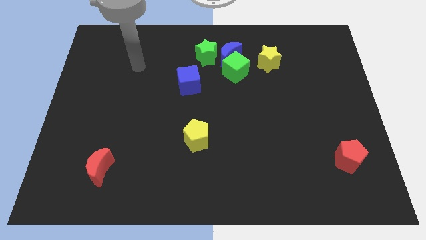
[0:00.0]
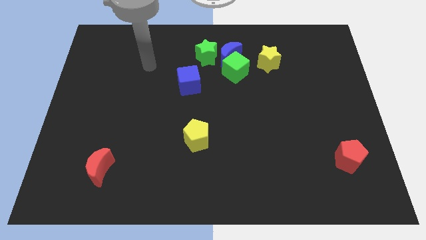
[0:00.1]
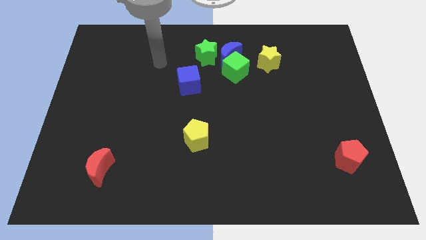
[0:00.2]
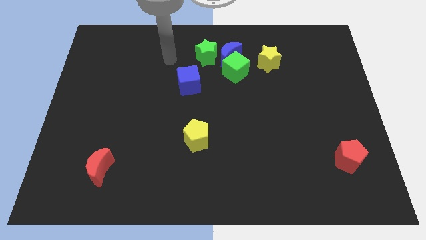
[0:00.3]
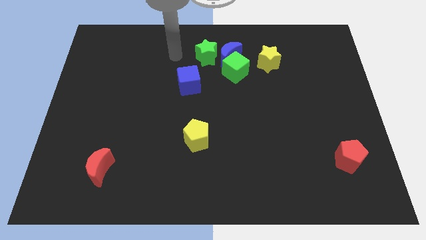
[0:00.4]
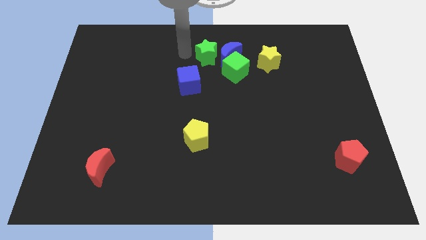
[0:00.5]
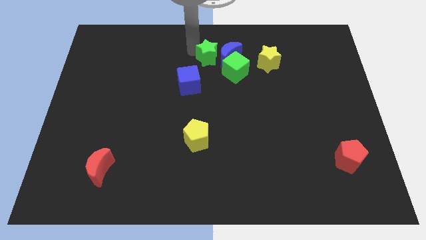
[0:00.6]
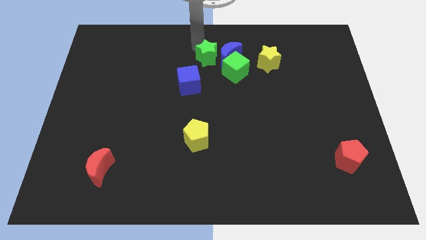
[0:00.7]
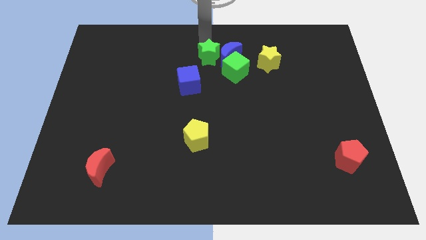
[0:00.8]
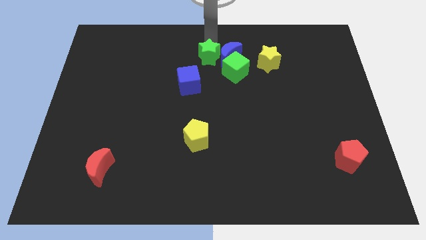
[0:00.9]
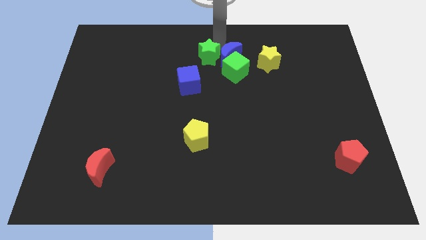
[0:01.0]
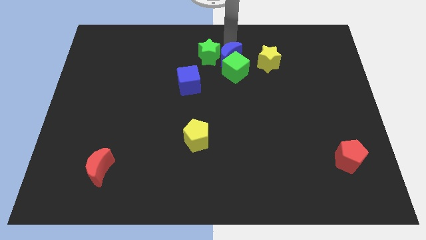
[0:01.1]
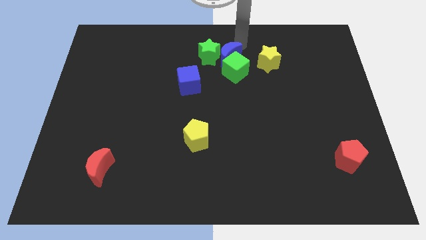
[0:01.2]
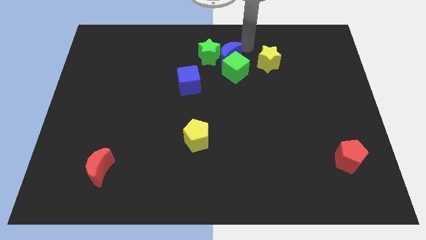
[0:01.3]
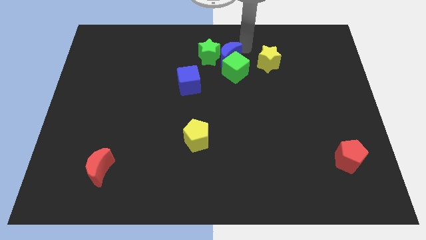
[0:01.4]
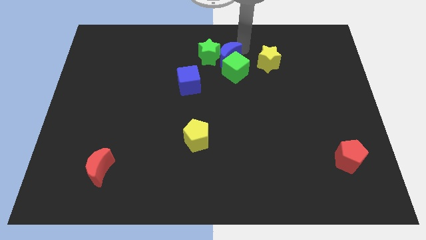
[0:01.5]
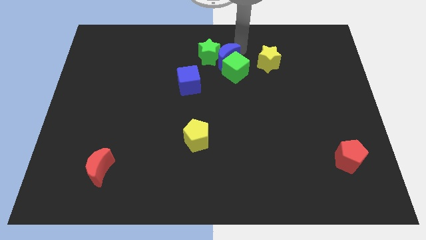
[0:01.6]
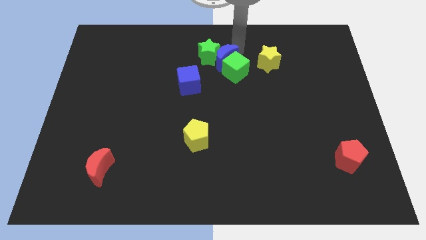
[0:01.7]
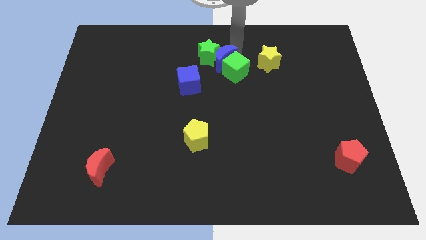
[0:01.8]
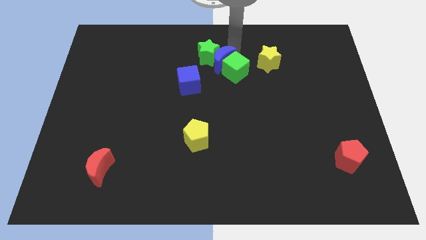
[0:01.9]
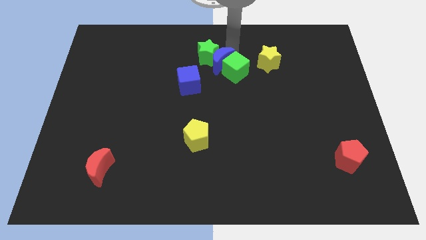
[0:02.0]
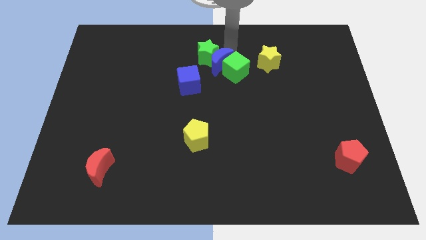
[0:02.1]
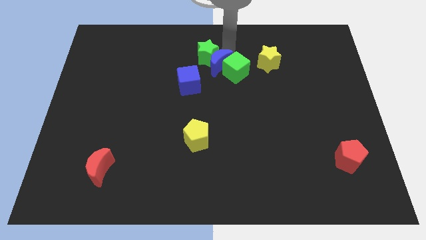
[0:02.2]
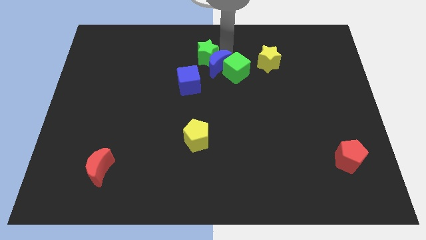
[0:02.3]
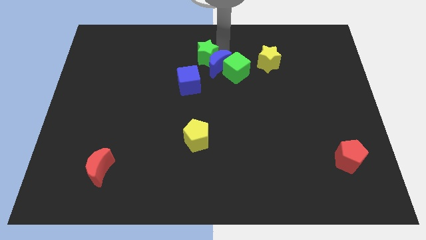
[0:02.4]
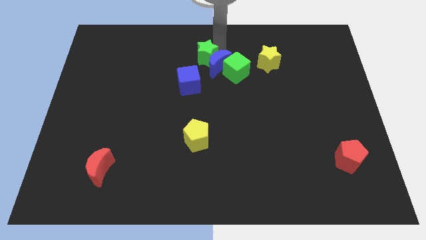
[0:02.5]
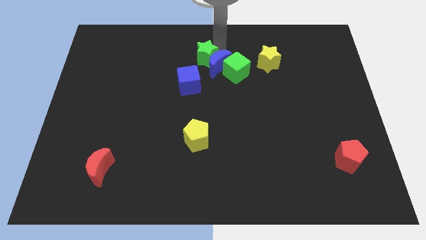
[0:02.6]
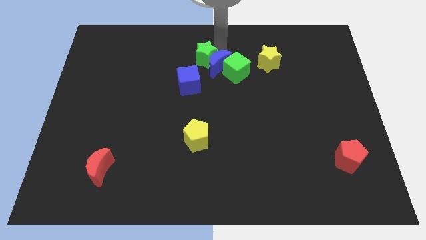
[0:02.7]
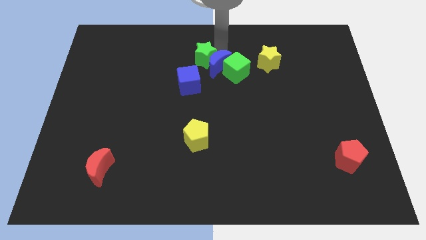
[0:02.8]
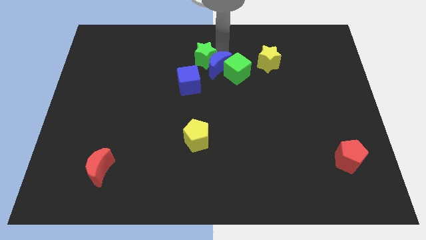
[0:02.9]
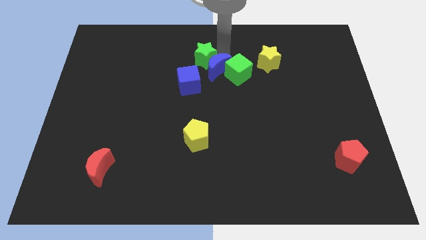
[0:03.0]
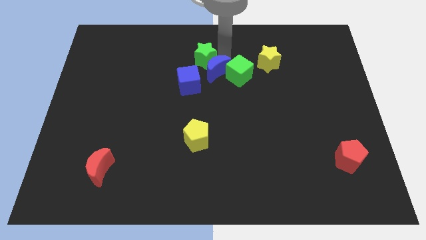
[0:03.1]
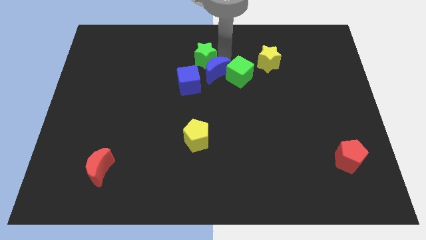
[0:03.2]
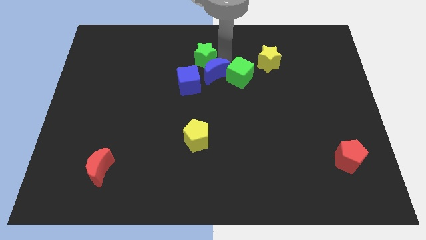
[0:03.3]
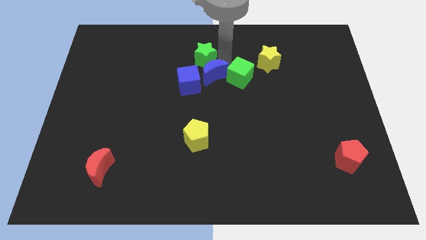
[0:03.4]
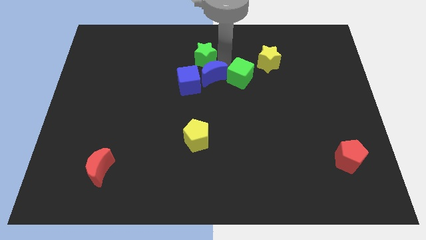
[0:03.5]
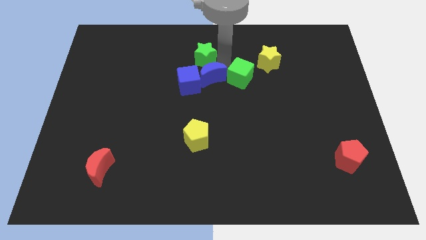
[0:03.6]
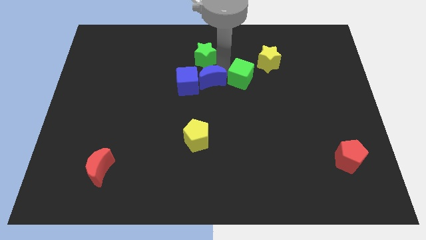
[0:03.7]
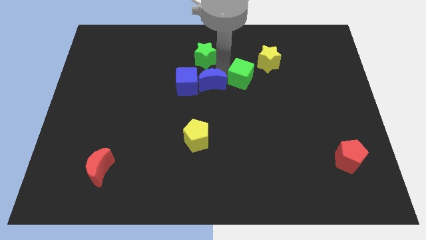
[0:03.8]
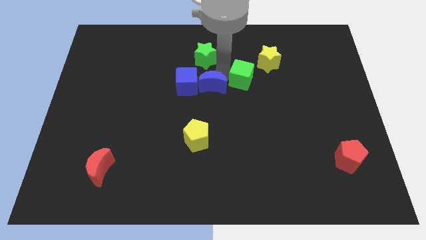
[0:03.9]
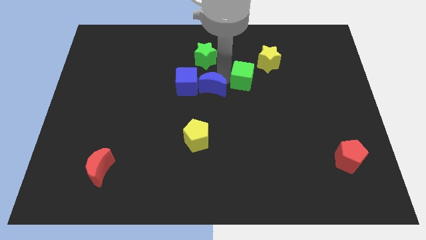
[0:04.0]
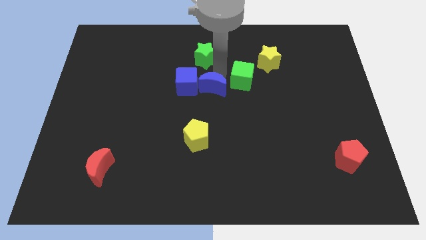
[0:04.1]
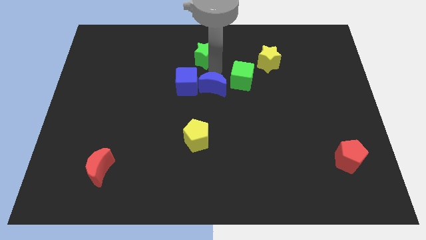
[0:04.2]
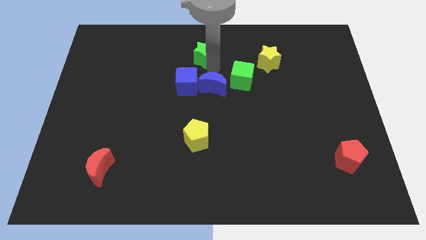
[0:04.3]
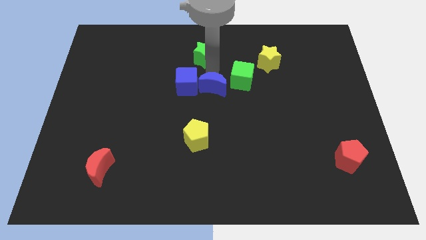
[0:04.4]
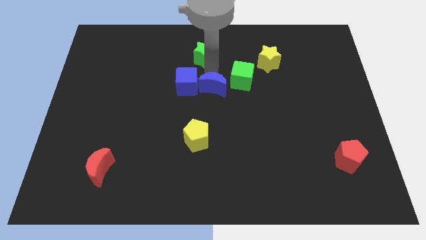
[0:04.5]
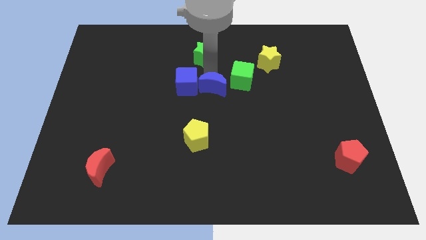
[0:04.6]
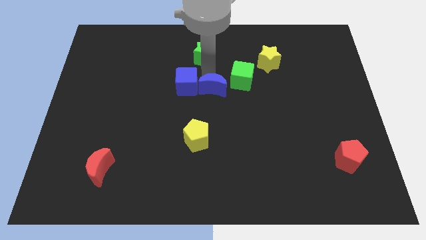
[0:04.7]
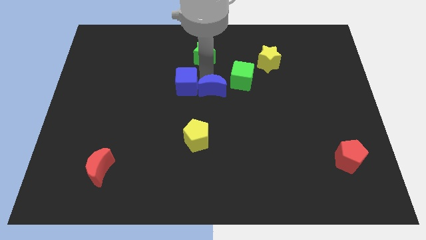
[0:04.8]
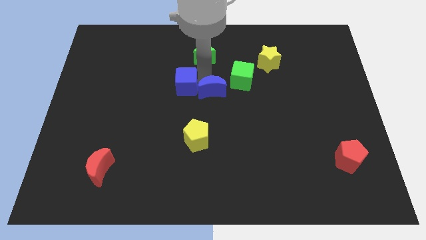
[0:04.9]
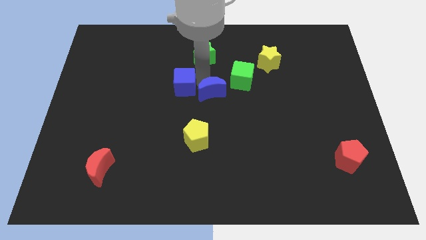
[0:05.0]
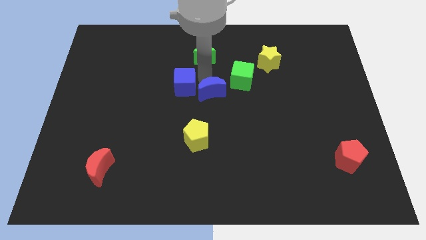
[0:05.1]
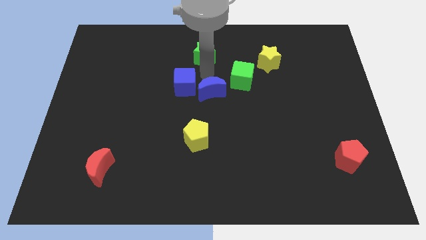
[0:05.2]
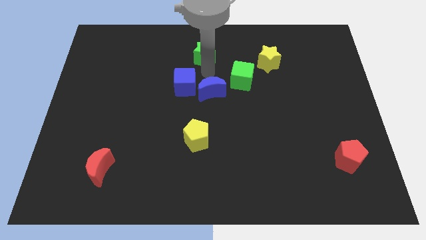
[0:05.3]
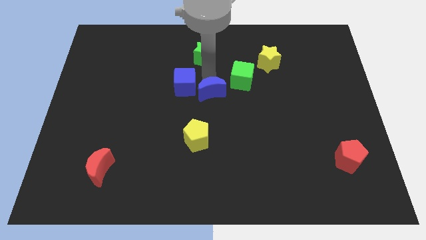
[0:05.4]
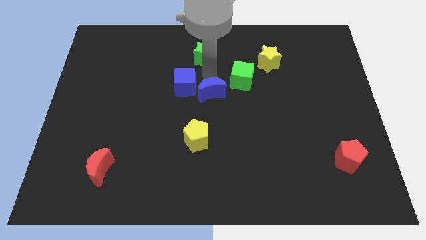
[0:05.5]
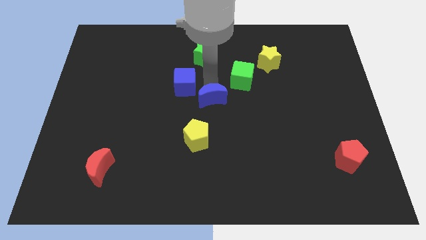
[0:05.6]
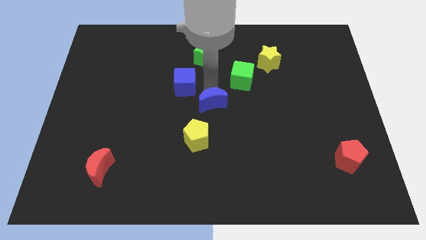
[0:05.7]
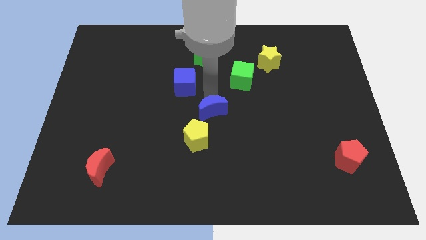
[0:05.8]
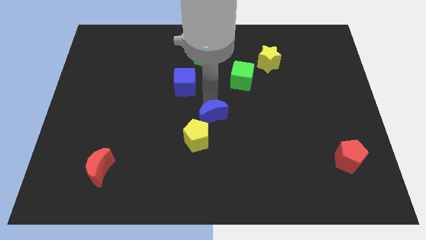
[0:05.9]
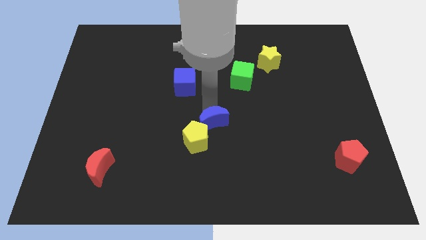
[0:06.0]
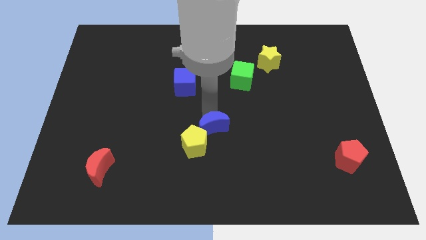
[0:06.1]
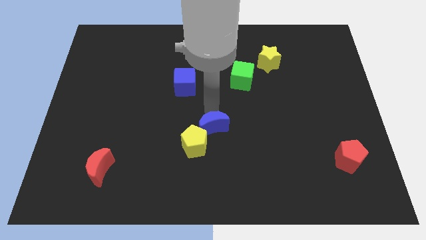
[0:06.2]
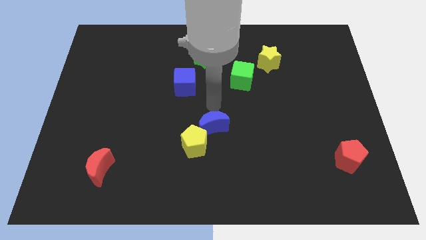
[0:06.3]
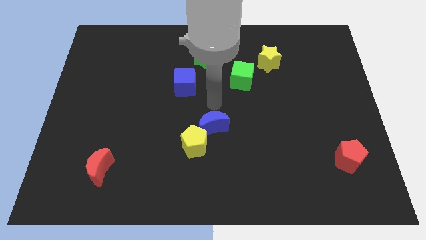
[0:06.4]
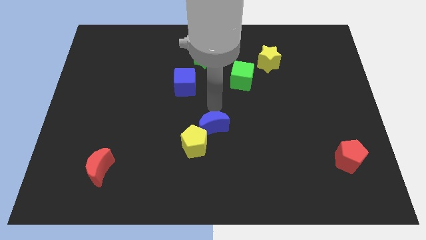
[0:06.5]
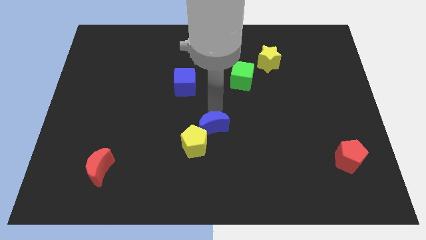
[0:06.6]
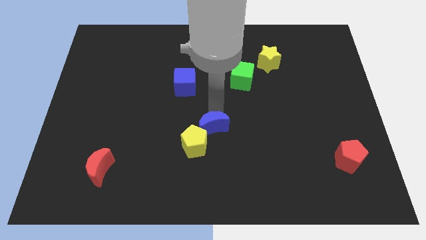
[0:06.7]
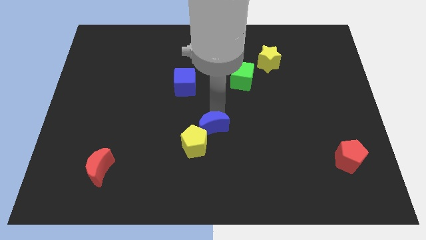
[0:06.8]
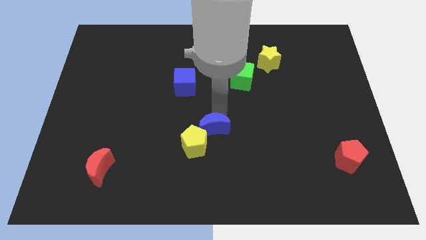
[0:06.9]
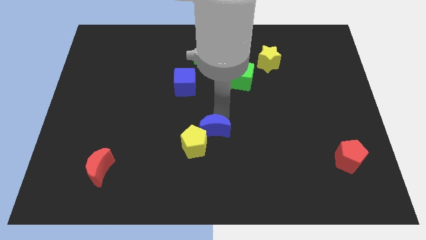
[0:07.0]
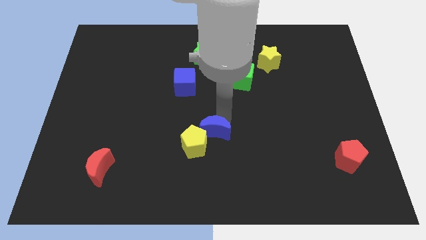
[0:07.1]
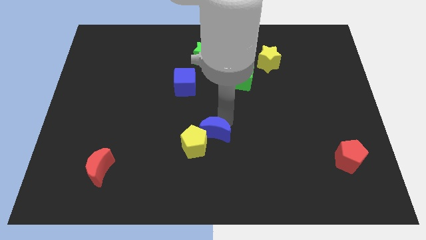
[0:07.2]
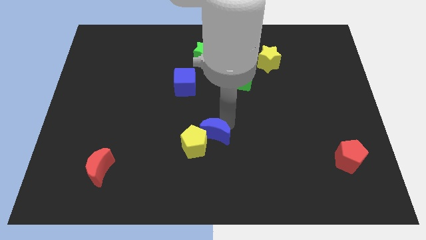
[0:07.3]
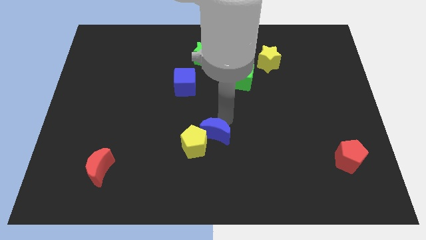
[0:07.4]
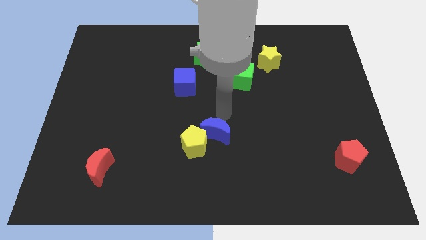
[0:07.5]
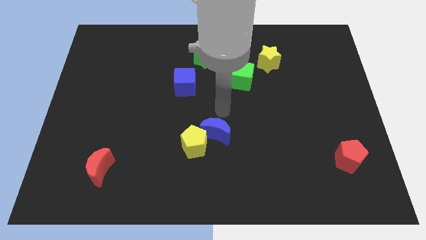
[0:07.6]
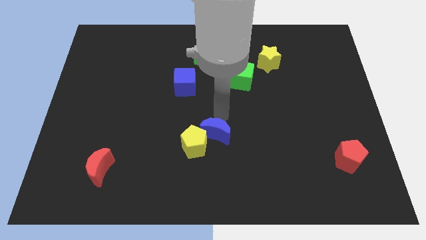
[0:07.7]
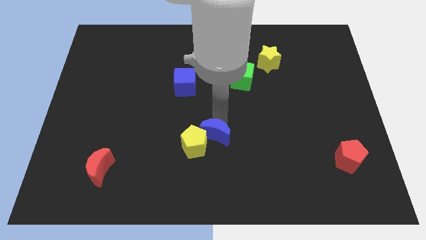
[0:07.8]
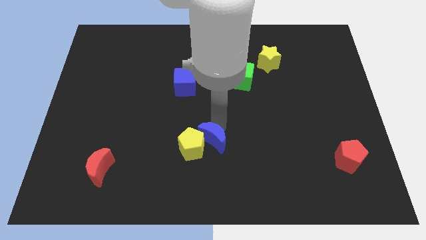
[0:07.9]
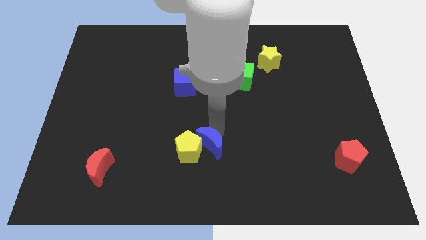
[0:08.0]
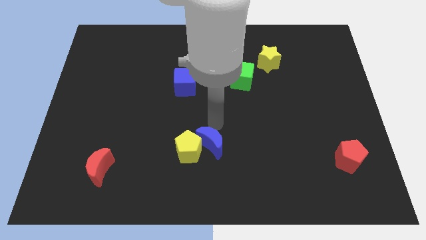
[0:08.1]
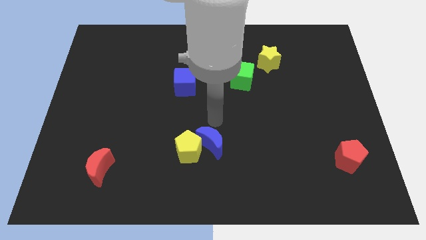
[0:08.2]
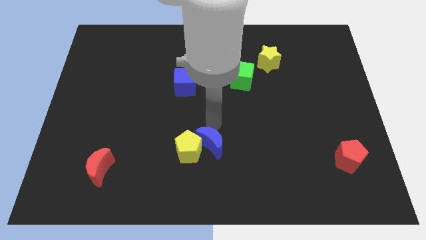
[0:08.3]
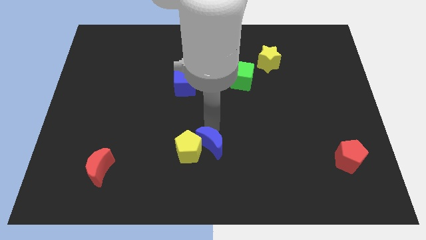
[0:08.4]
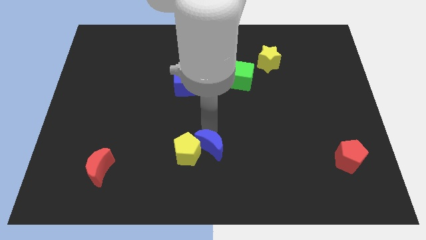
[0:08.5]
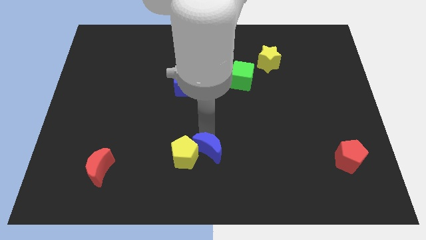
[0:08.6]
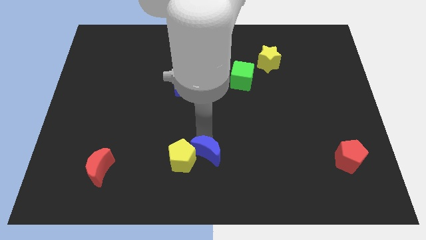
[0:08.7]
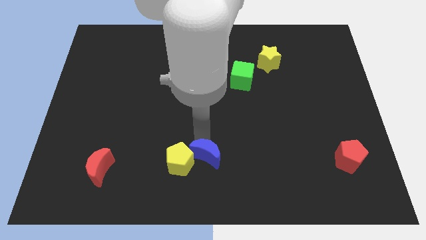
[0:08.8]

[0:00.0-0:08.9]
slide the blue moon to the bottom
